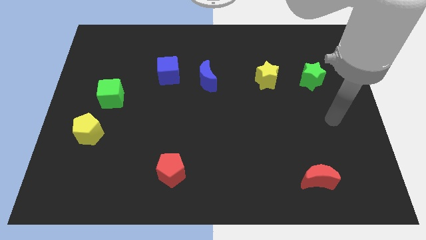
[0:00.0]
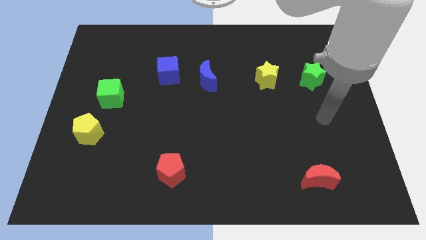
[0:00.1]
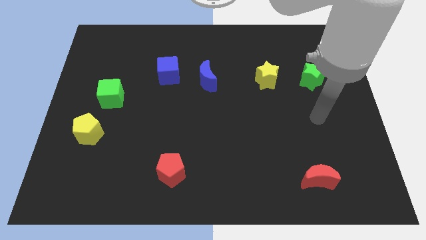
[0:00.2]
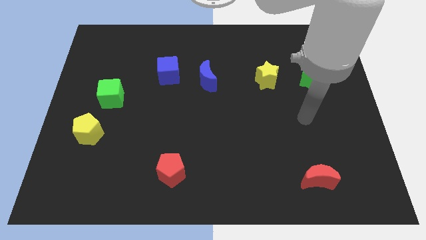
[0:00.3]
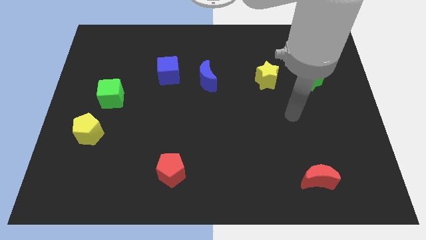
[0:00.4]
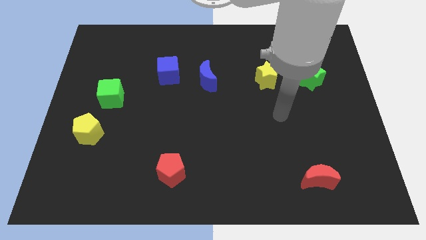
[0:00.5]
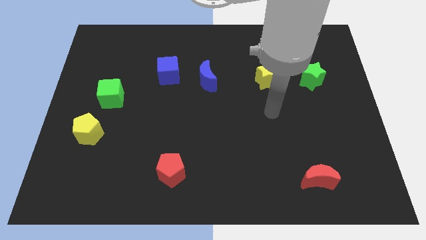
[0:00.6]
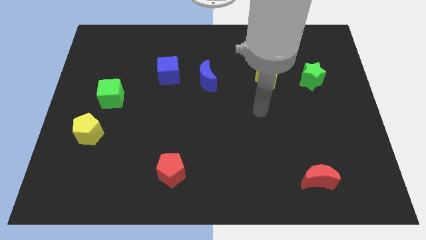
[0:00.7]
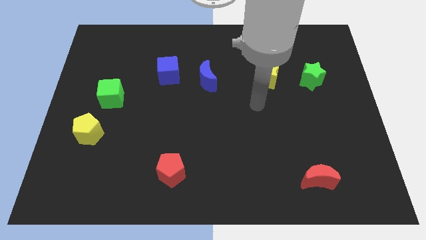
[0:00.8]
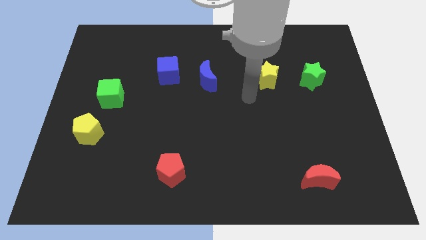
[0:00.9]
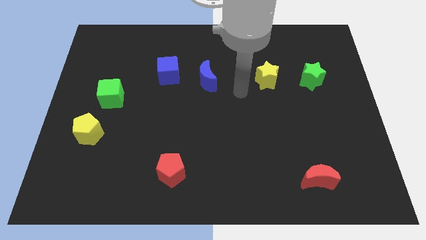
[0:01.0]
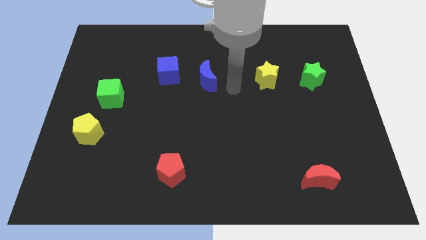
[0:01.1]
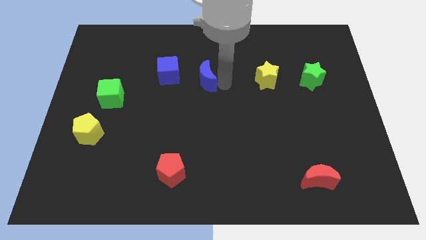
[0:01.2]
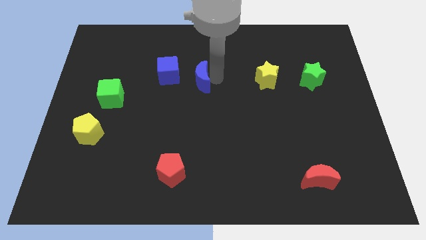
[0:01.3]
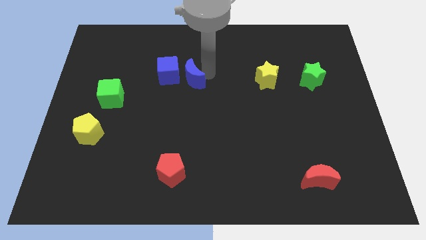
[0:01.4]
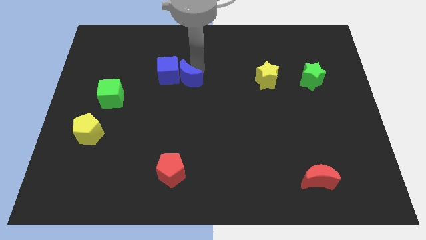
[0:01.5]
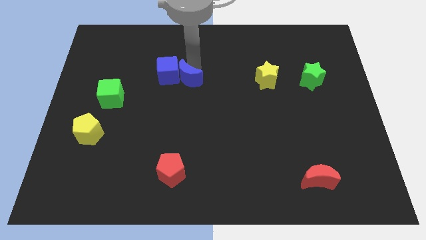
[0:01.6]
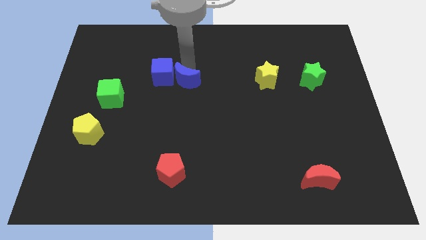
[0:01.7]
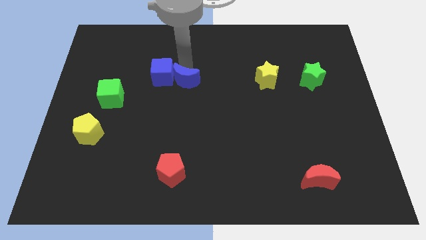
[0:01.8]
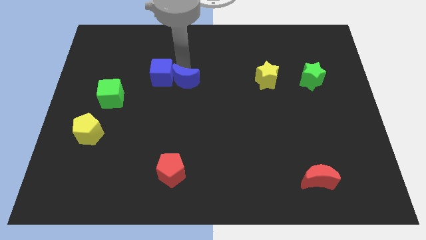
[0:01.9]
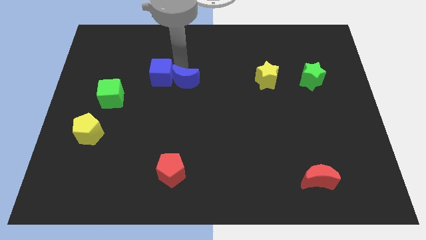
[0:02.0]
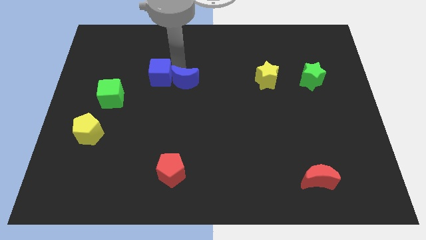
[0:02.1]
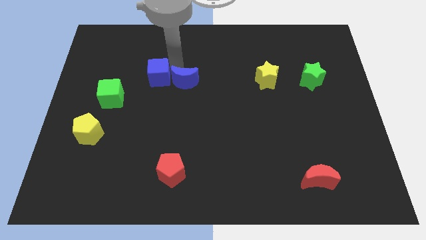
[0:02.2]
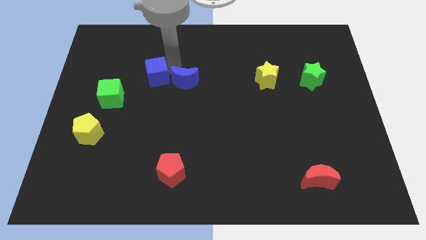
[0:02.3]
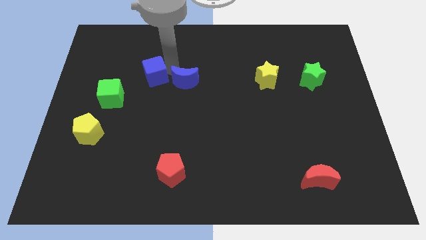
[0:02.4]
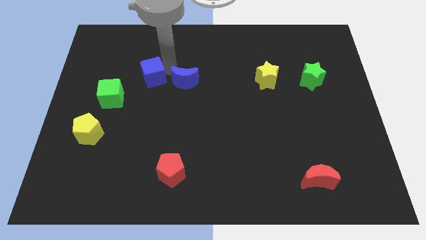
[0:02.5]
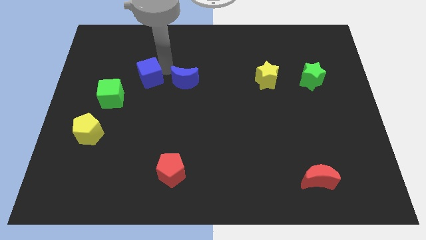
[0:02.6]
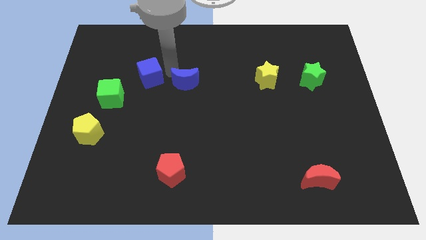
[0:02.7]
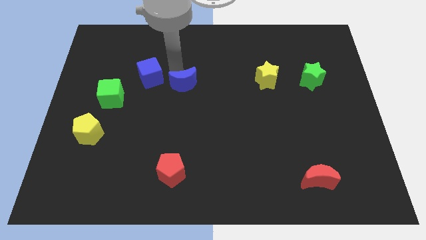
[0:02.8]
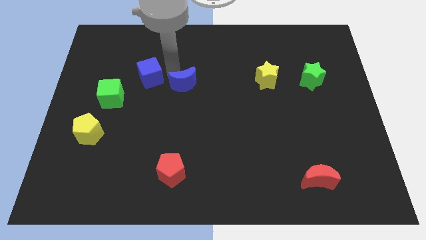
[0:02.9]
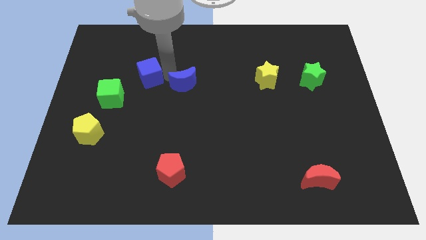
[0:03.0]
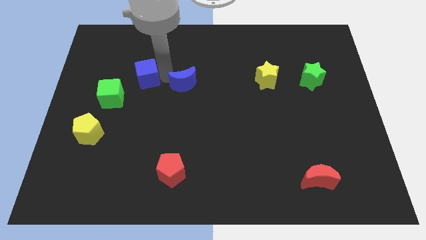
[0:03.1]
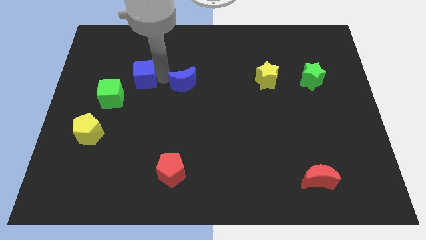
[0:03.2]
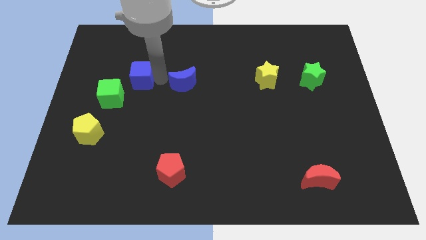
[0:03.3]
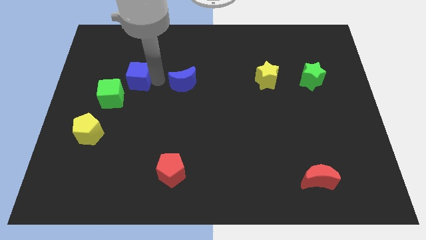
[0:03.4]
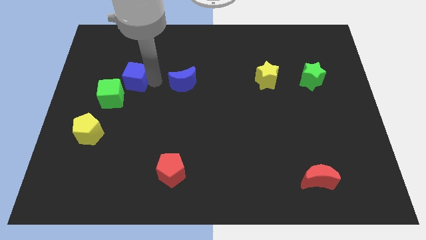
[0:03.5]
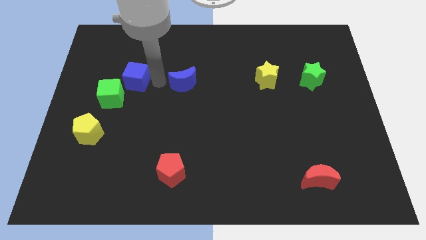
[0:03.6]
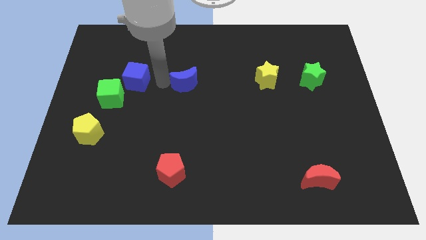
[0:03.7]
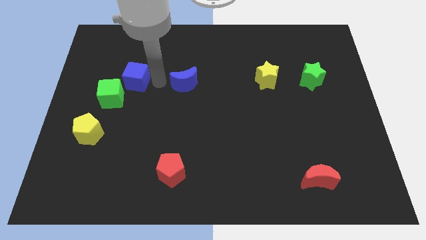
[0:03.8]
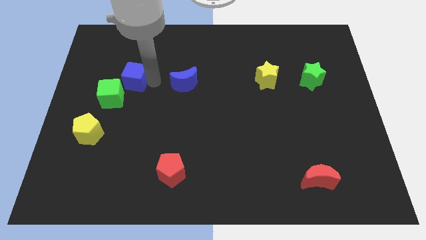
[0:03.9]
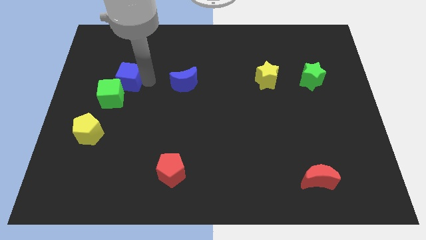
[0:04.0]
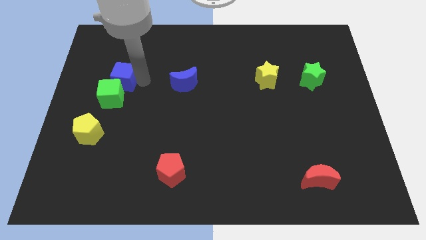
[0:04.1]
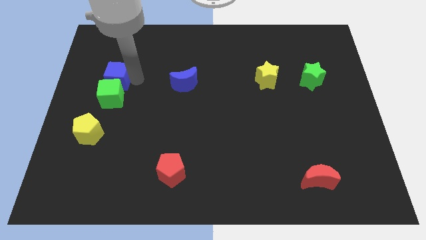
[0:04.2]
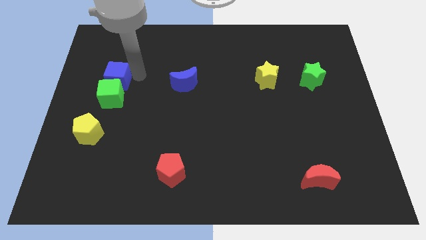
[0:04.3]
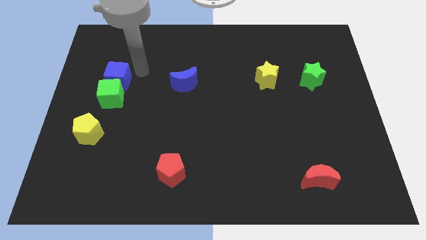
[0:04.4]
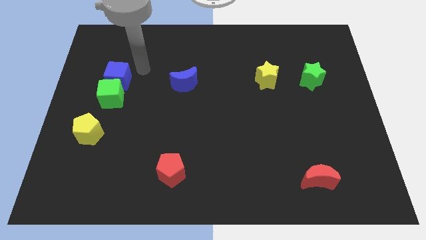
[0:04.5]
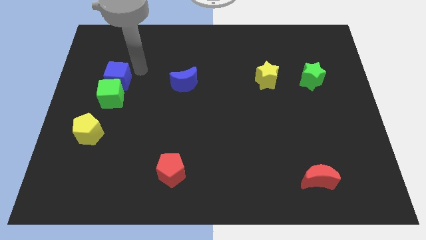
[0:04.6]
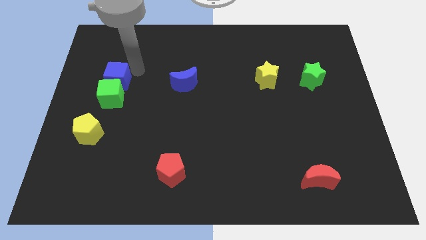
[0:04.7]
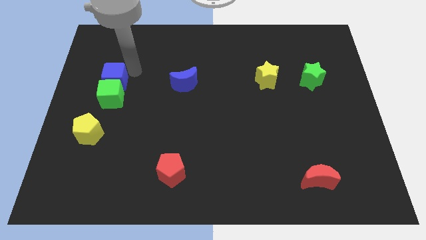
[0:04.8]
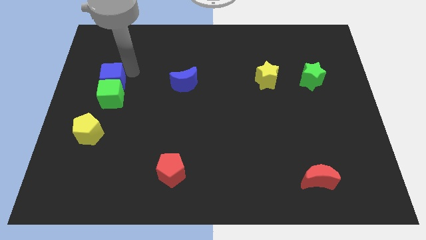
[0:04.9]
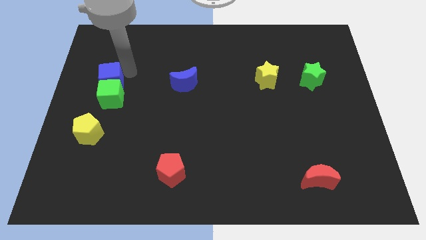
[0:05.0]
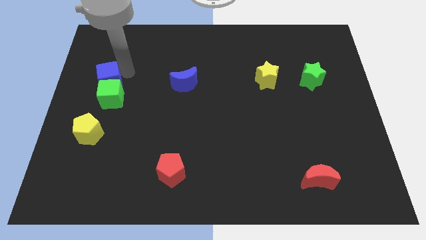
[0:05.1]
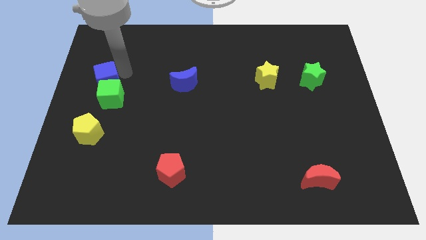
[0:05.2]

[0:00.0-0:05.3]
push the blue cube to the left side of the board

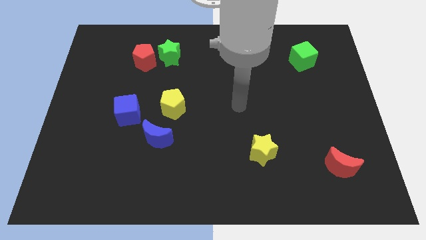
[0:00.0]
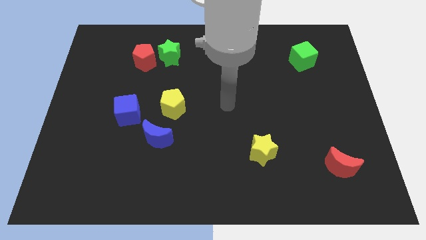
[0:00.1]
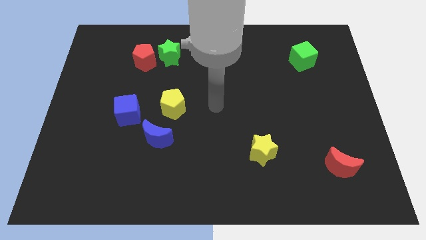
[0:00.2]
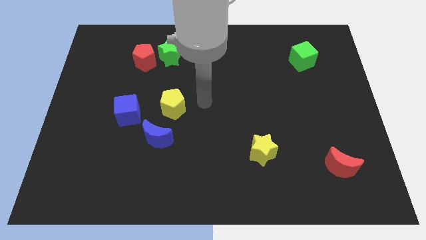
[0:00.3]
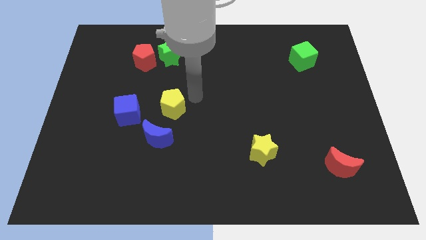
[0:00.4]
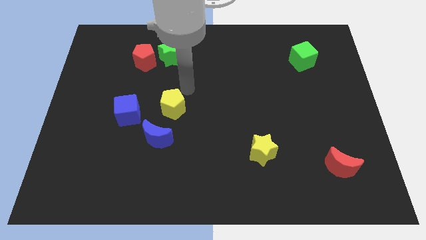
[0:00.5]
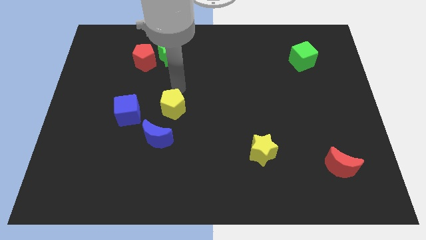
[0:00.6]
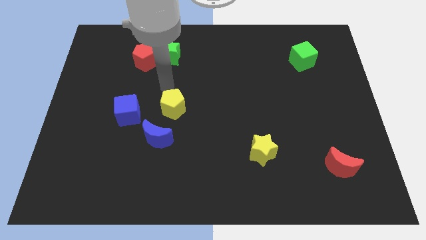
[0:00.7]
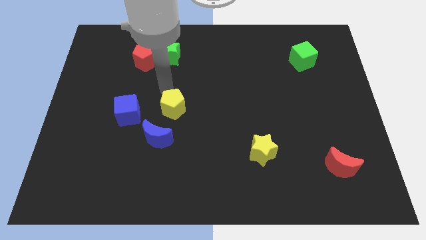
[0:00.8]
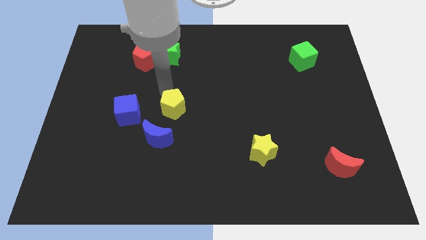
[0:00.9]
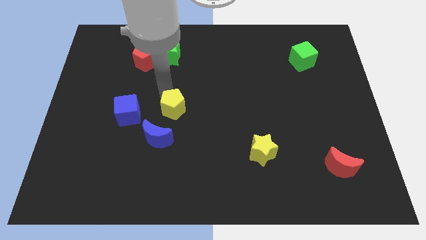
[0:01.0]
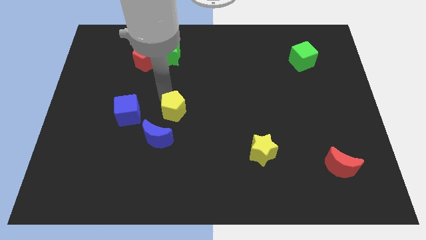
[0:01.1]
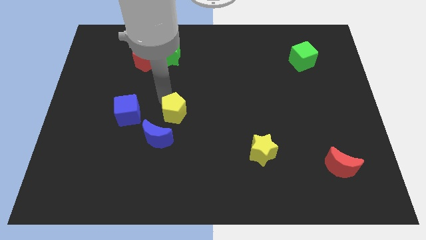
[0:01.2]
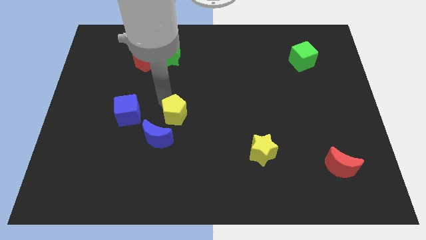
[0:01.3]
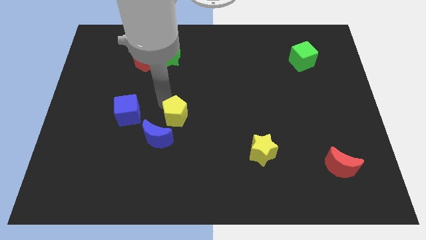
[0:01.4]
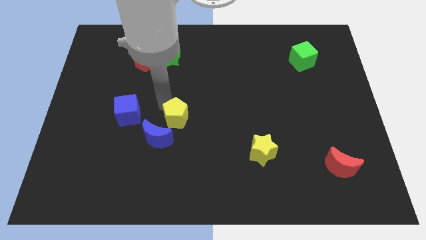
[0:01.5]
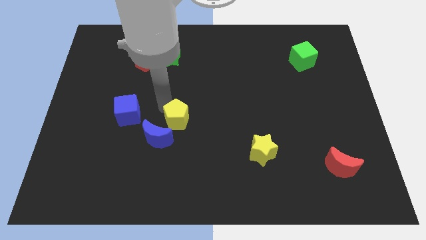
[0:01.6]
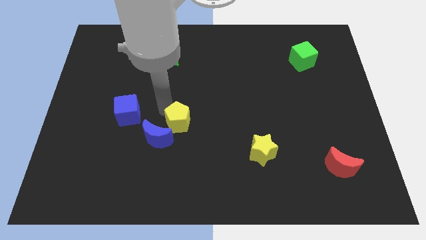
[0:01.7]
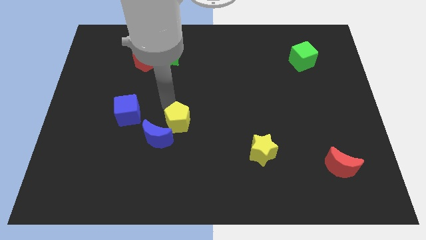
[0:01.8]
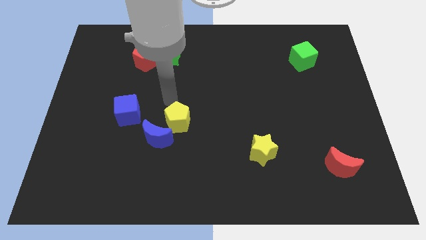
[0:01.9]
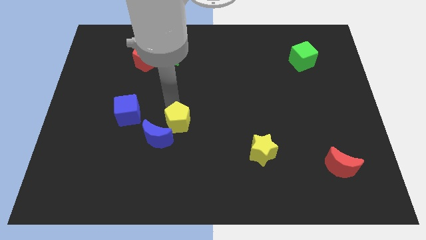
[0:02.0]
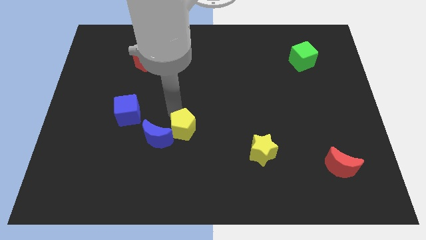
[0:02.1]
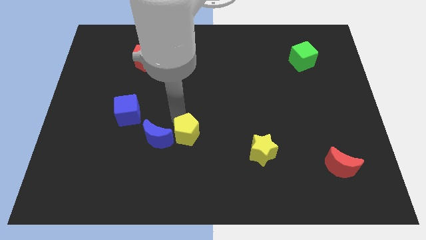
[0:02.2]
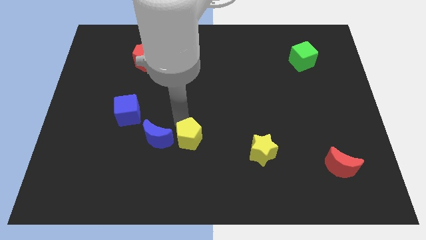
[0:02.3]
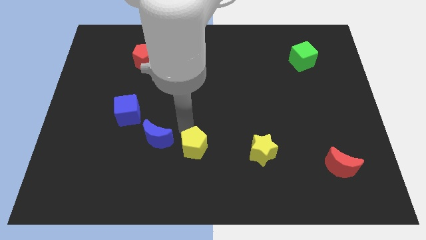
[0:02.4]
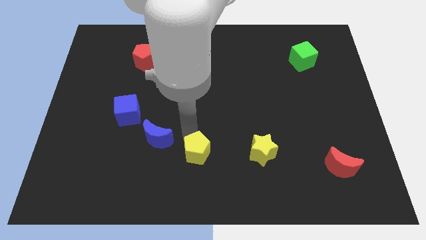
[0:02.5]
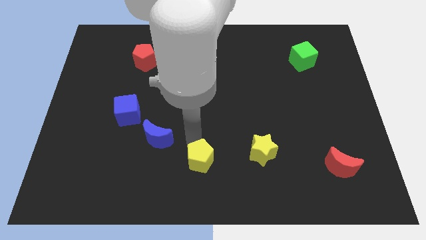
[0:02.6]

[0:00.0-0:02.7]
put the yellow pentagon to the bottom side
